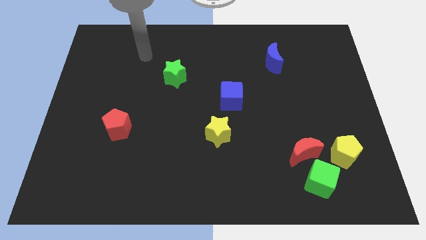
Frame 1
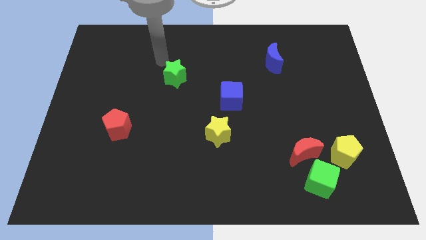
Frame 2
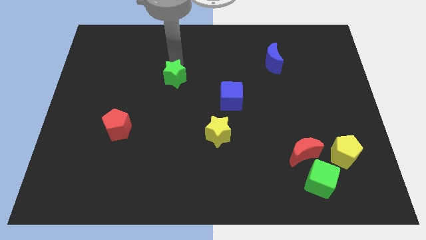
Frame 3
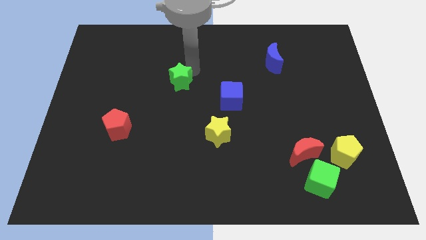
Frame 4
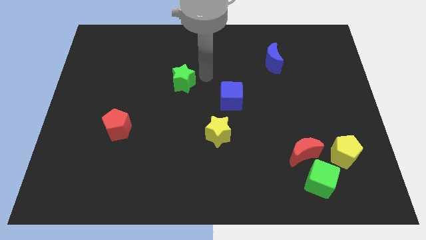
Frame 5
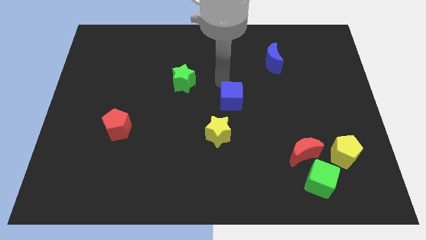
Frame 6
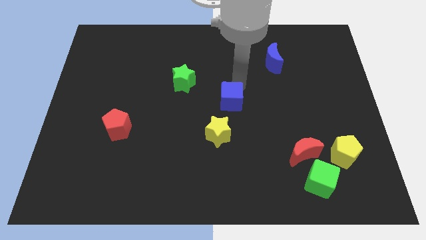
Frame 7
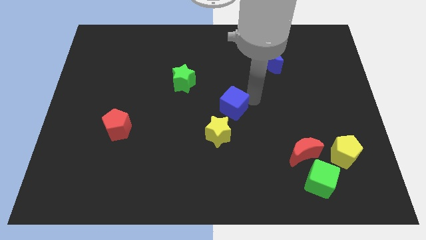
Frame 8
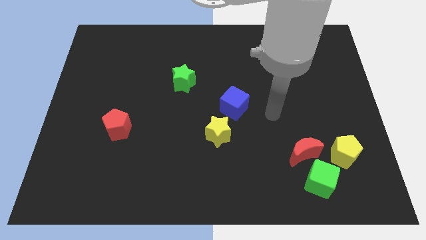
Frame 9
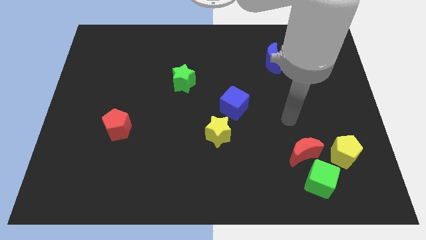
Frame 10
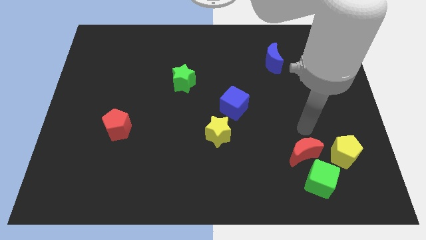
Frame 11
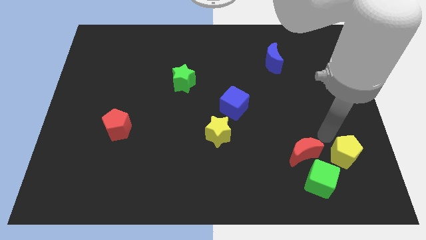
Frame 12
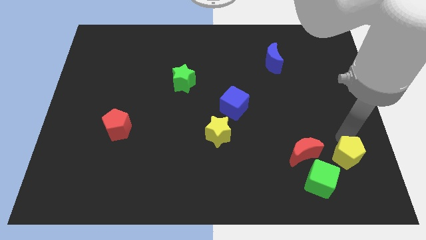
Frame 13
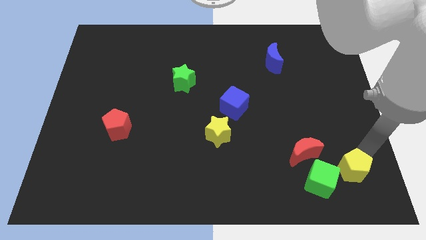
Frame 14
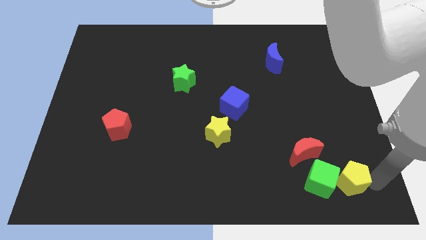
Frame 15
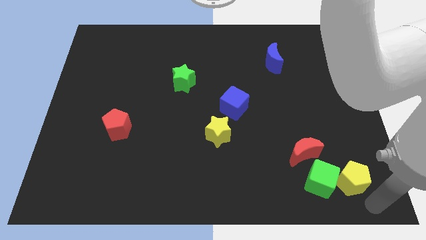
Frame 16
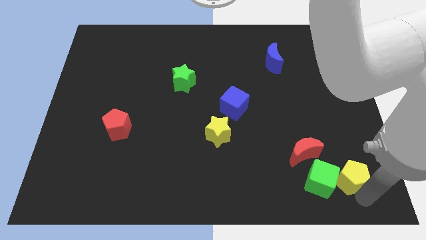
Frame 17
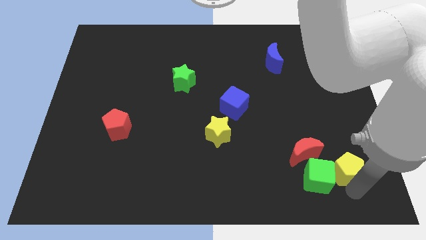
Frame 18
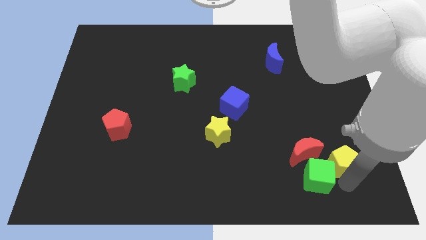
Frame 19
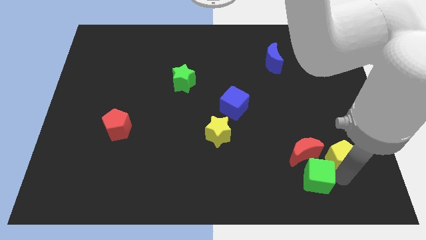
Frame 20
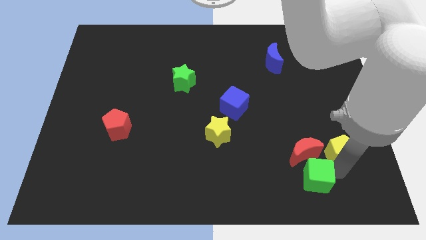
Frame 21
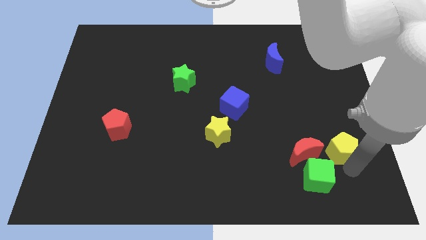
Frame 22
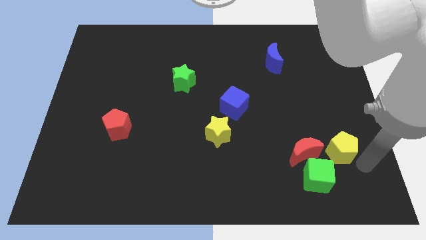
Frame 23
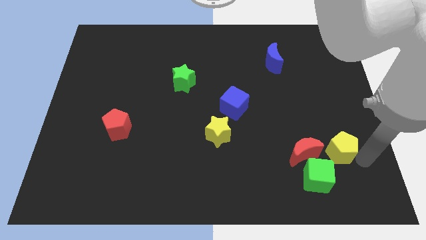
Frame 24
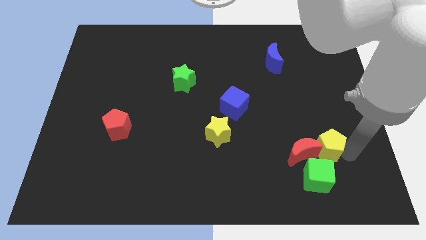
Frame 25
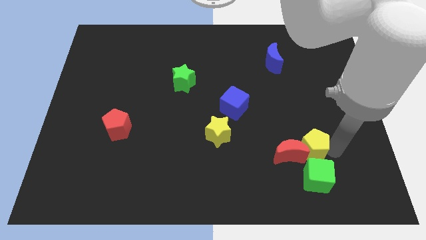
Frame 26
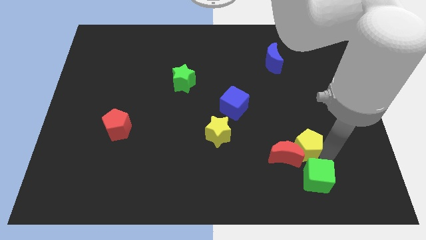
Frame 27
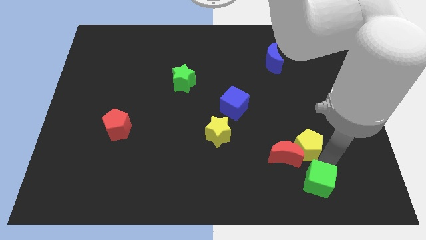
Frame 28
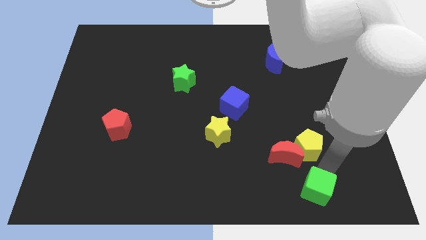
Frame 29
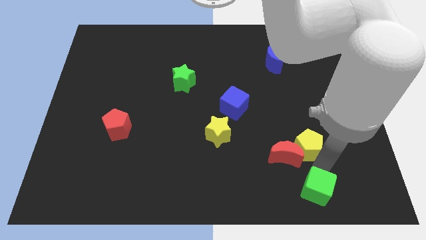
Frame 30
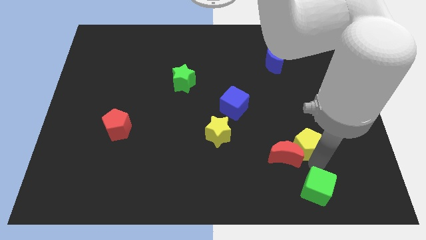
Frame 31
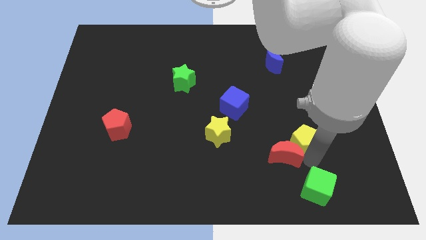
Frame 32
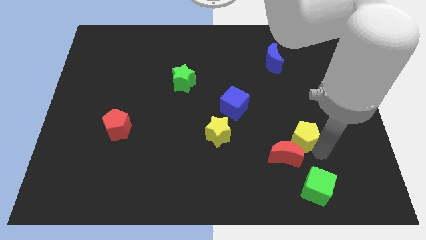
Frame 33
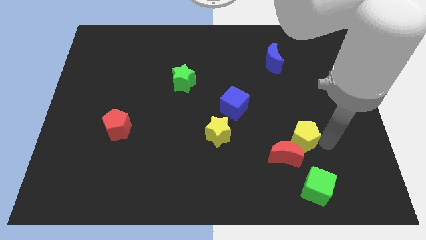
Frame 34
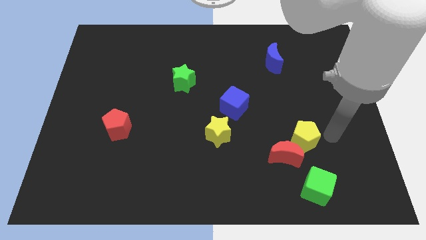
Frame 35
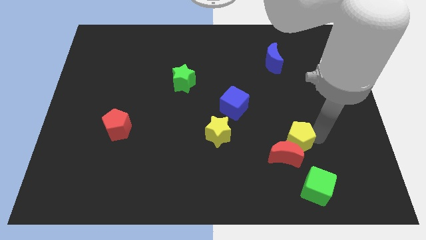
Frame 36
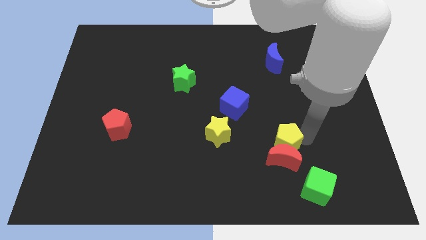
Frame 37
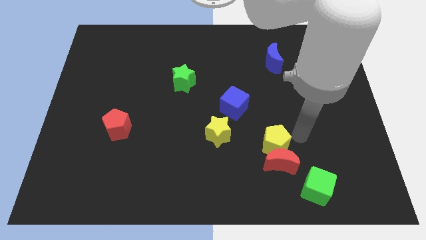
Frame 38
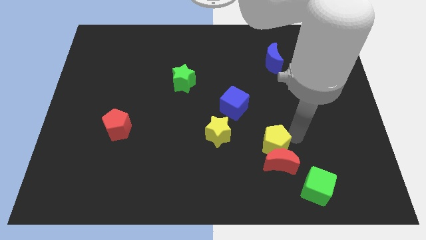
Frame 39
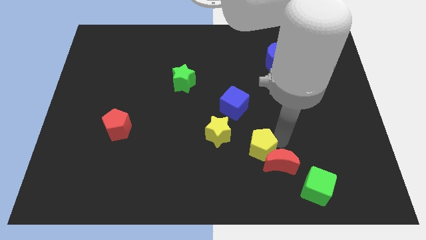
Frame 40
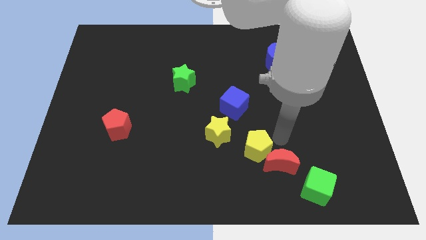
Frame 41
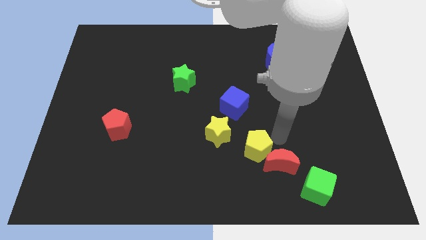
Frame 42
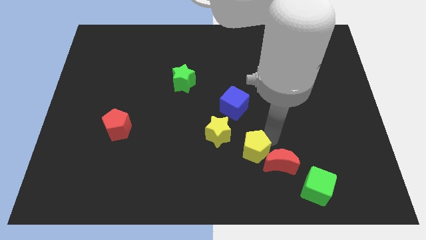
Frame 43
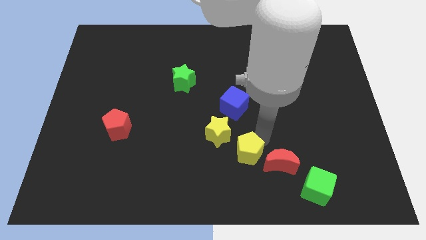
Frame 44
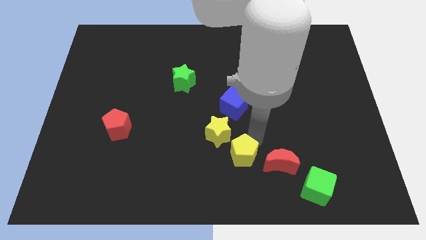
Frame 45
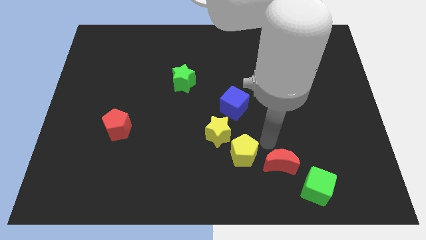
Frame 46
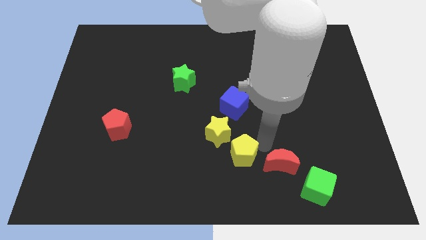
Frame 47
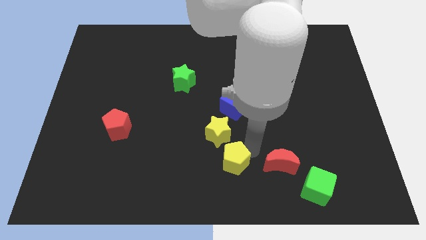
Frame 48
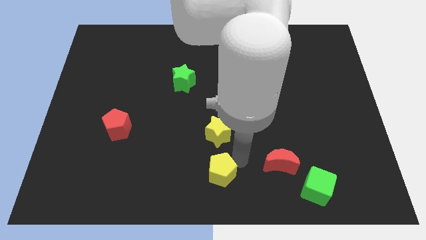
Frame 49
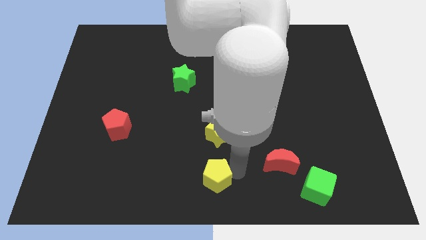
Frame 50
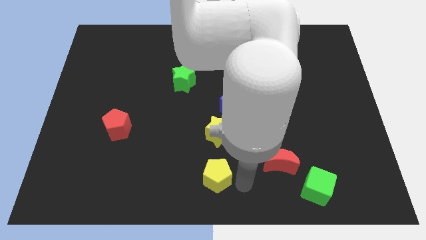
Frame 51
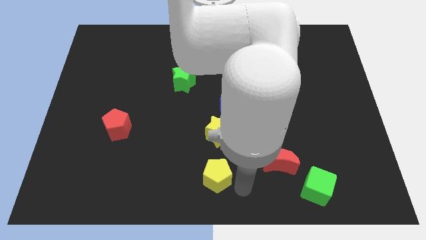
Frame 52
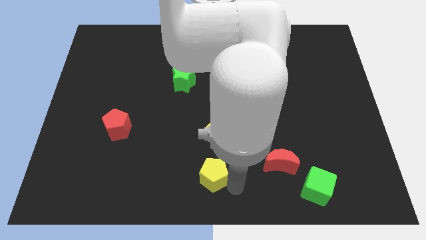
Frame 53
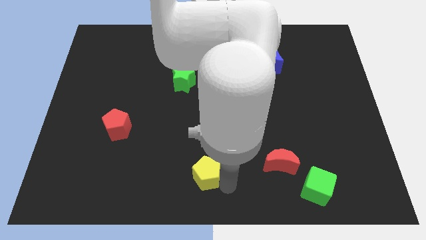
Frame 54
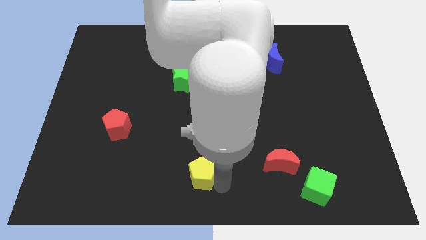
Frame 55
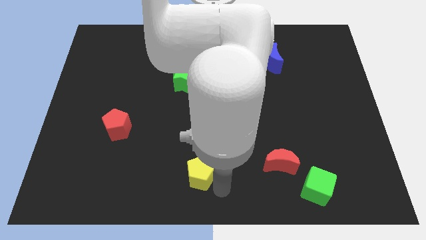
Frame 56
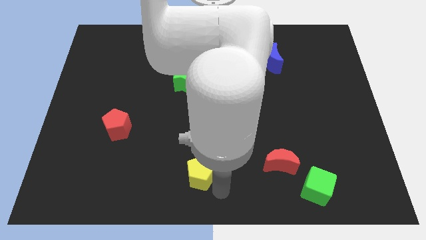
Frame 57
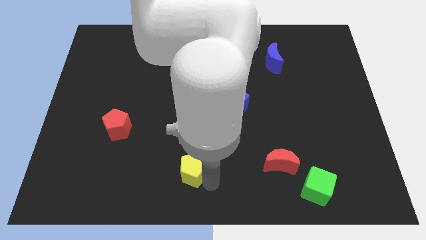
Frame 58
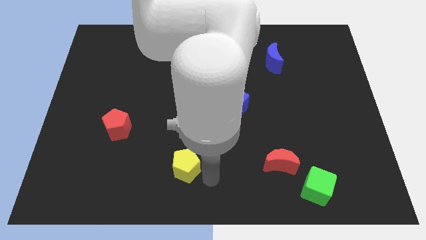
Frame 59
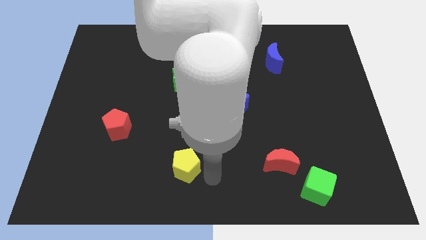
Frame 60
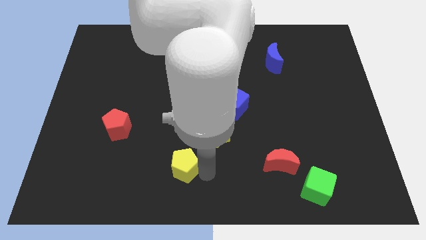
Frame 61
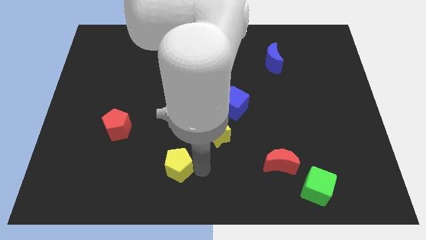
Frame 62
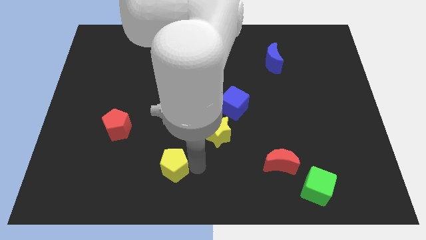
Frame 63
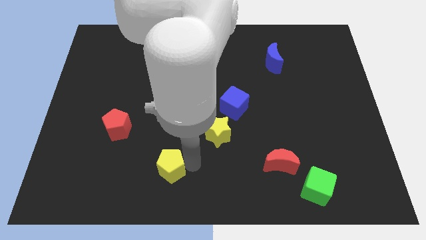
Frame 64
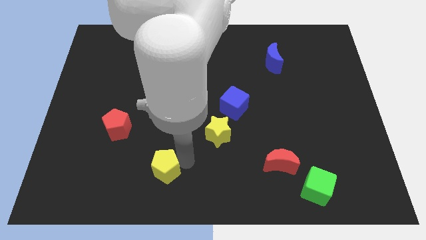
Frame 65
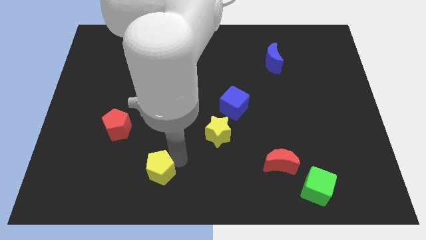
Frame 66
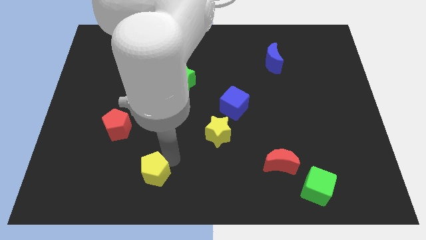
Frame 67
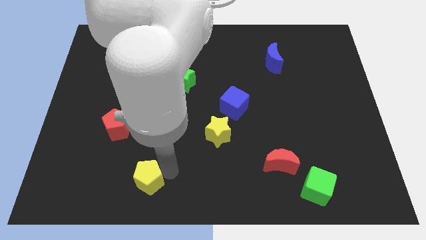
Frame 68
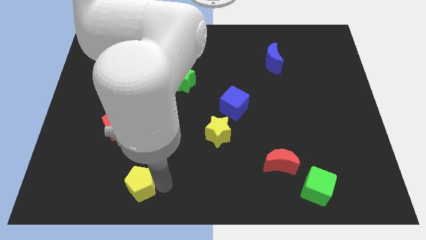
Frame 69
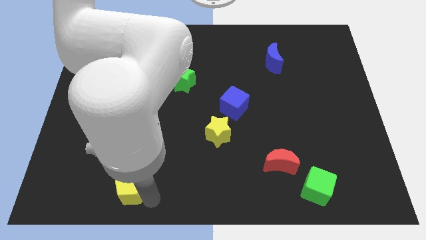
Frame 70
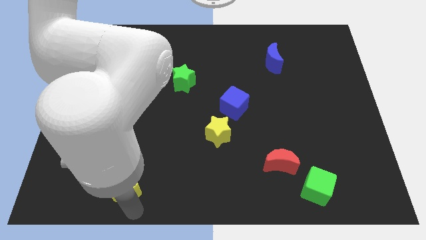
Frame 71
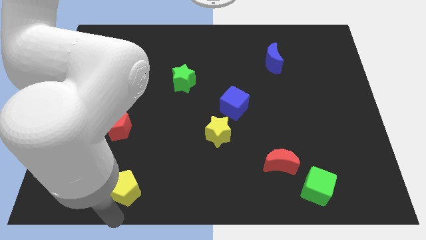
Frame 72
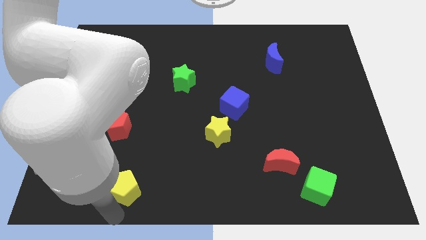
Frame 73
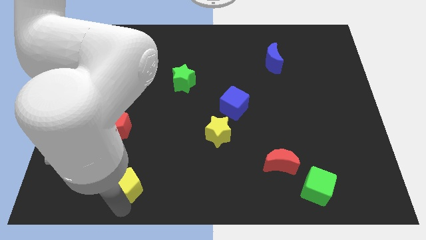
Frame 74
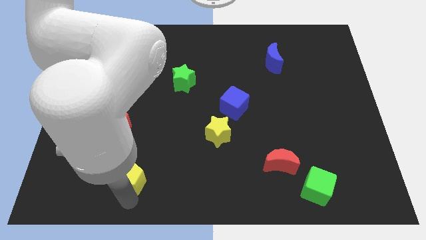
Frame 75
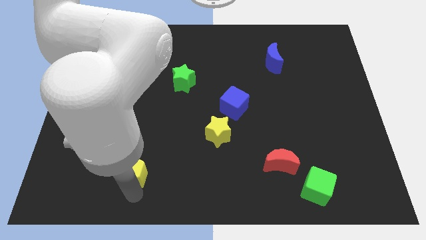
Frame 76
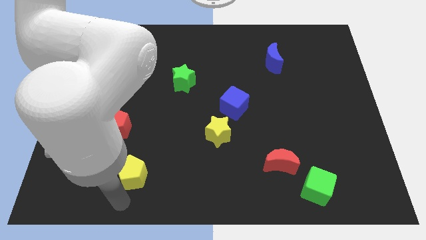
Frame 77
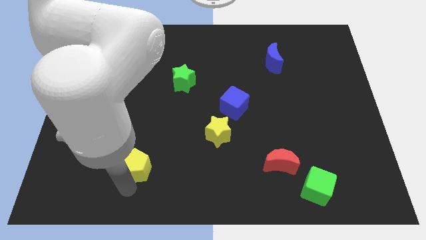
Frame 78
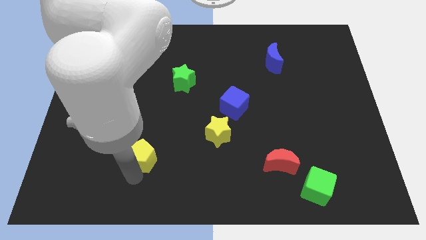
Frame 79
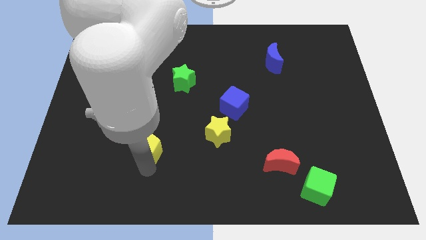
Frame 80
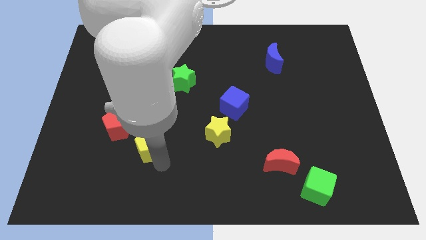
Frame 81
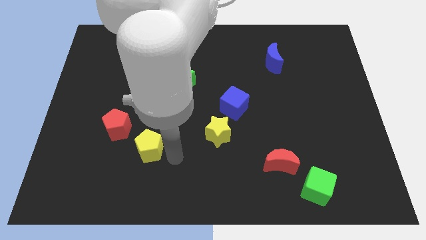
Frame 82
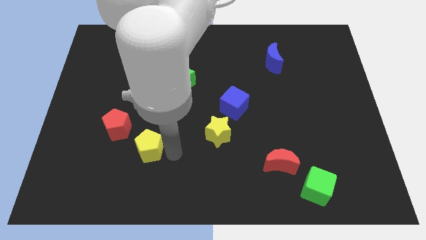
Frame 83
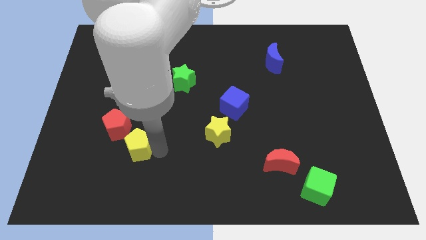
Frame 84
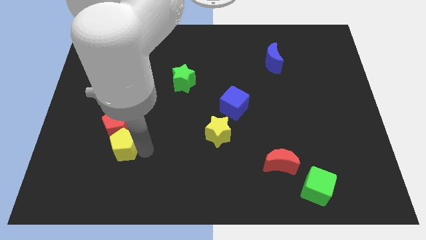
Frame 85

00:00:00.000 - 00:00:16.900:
move the yellow pentagon close to the red pentagon
